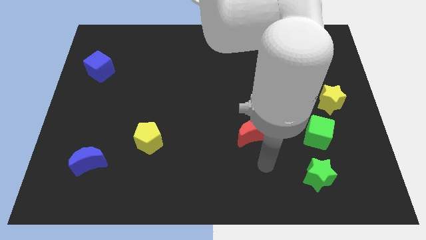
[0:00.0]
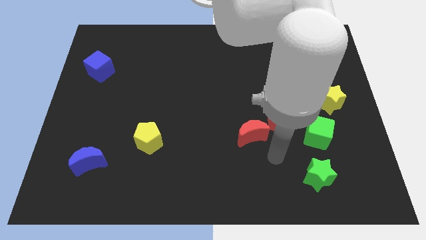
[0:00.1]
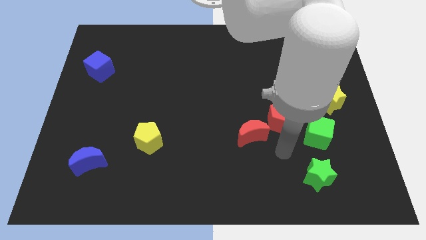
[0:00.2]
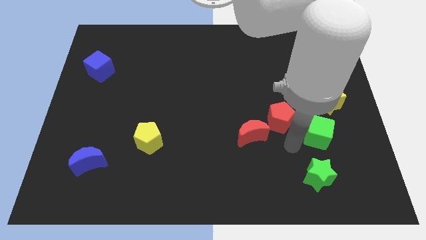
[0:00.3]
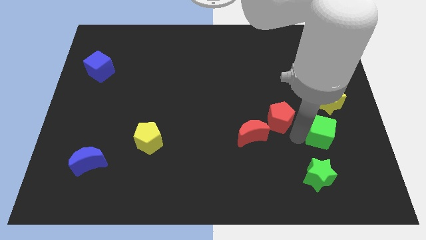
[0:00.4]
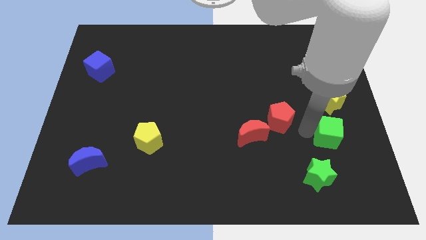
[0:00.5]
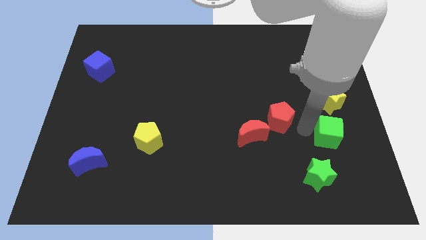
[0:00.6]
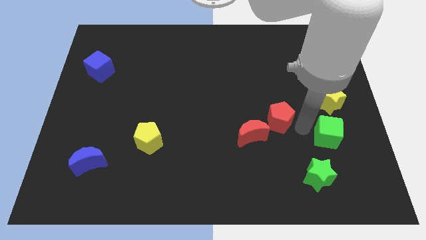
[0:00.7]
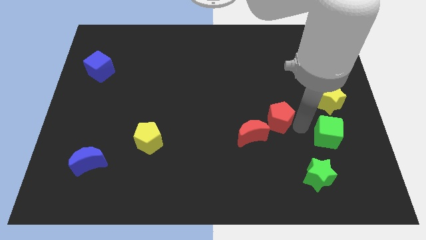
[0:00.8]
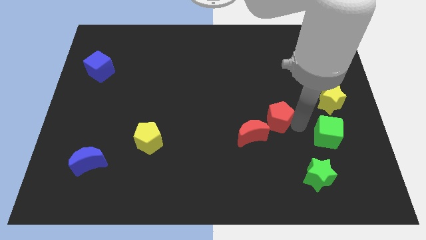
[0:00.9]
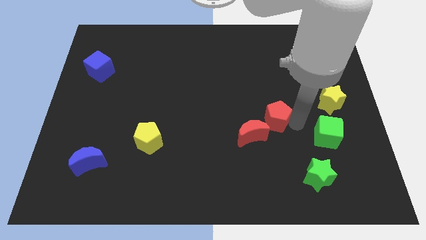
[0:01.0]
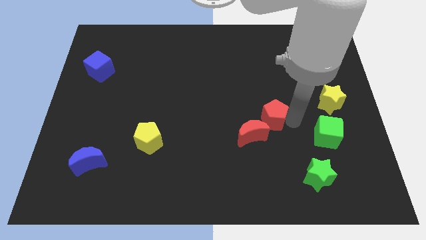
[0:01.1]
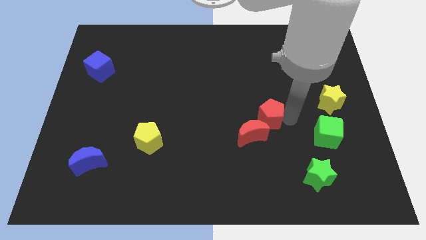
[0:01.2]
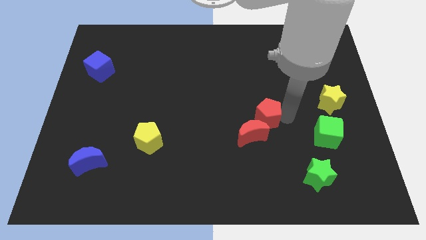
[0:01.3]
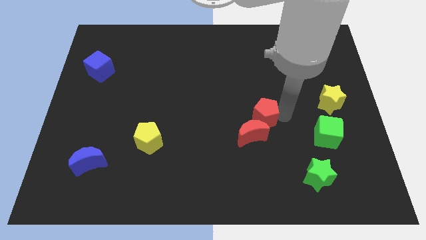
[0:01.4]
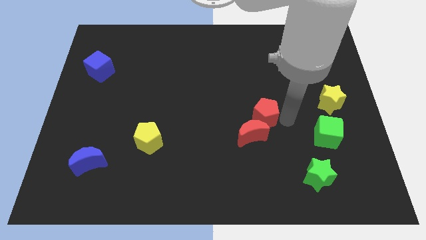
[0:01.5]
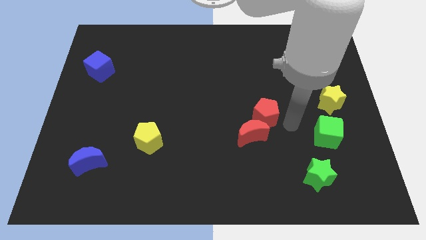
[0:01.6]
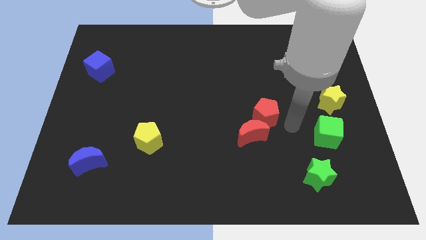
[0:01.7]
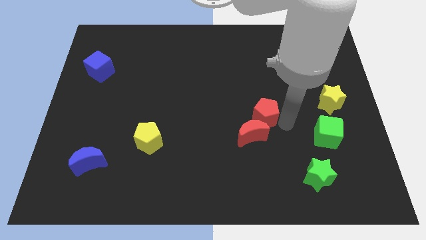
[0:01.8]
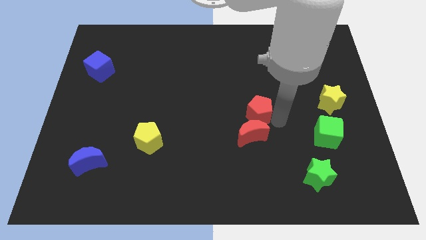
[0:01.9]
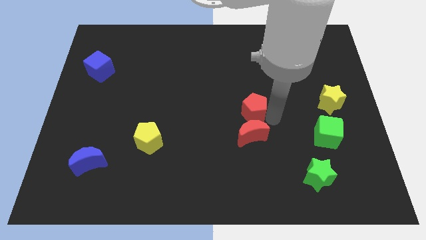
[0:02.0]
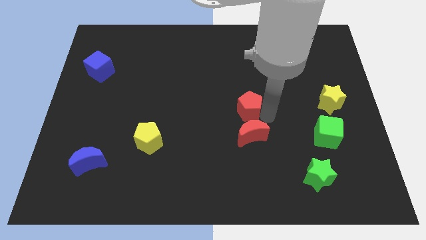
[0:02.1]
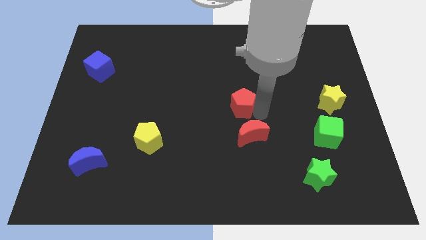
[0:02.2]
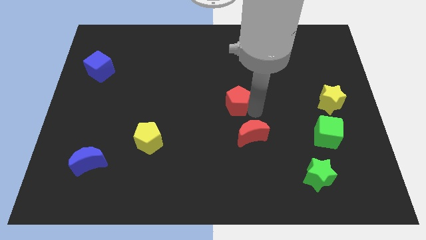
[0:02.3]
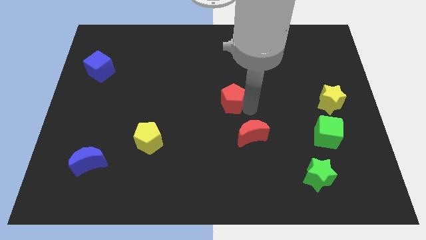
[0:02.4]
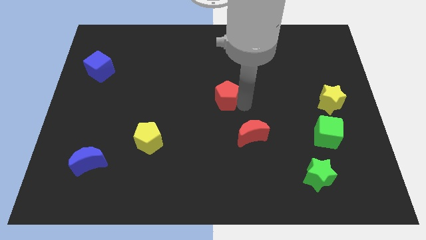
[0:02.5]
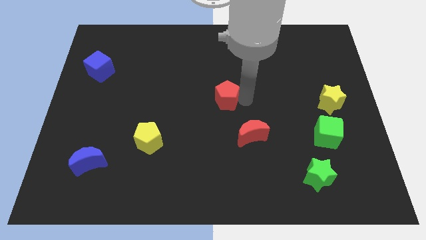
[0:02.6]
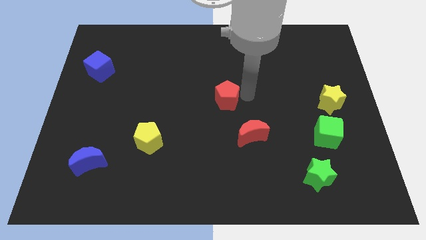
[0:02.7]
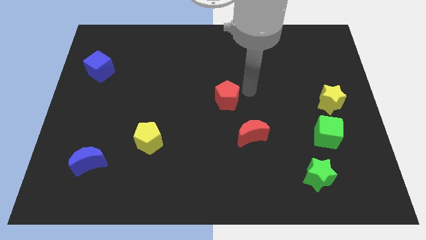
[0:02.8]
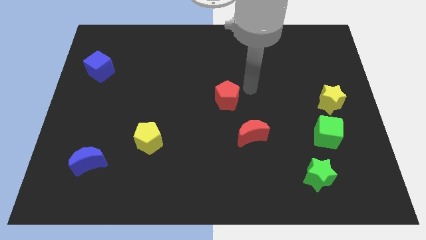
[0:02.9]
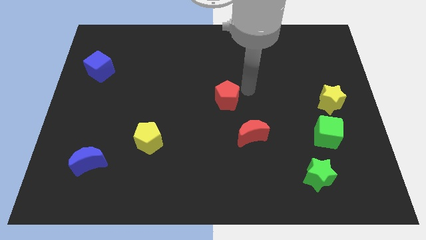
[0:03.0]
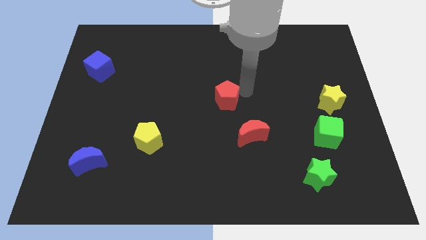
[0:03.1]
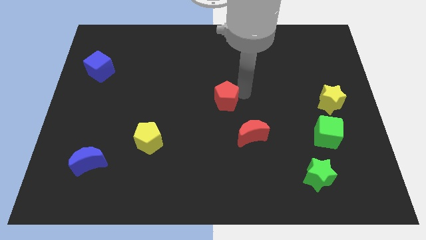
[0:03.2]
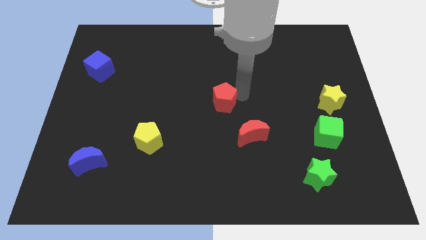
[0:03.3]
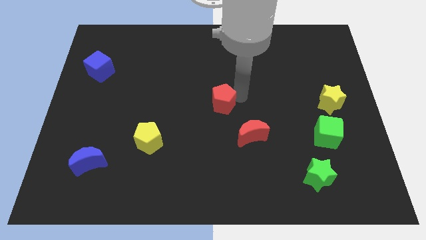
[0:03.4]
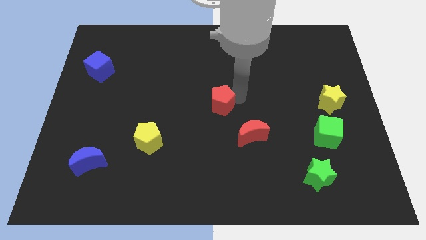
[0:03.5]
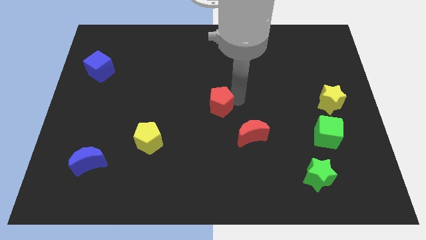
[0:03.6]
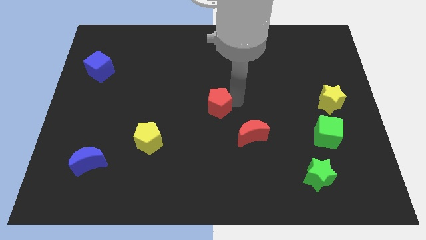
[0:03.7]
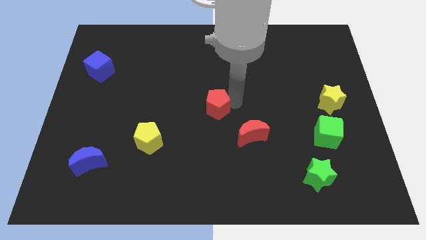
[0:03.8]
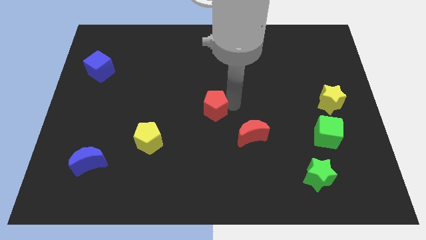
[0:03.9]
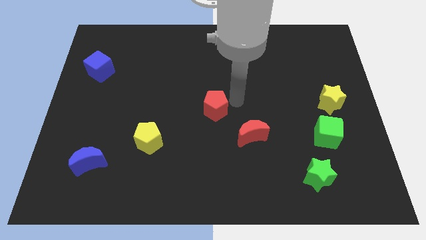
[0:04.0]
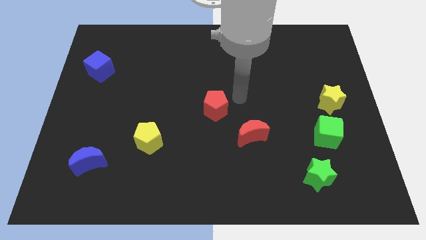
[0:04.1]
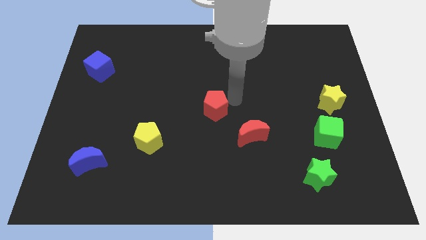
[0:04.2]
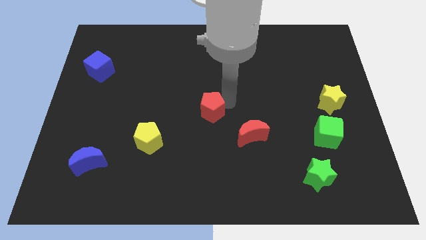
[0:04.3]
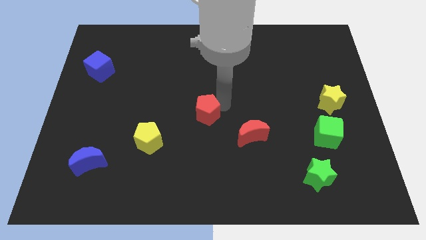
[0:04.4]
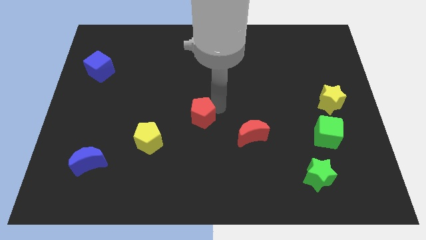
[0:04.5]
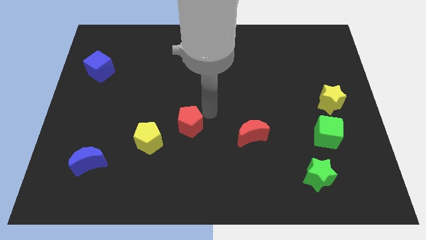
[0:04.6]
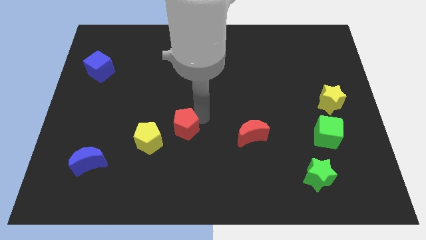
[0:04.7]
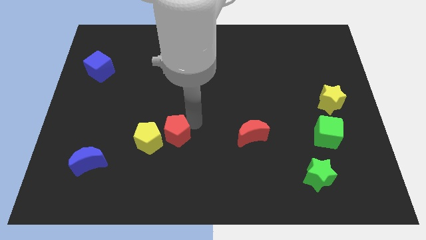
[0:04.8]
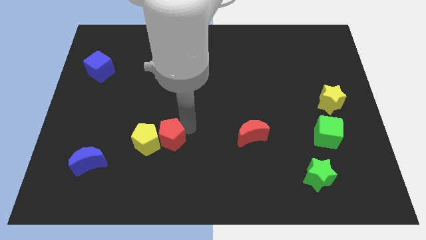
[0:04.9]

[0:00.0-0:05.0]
push the red pentagon close to the yellow pentagon

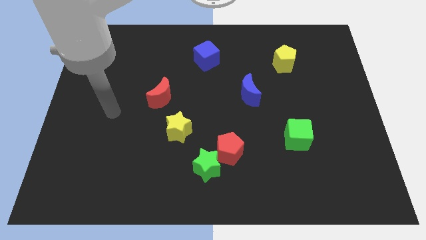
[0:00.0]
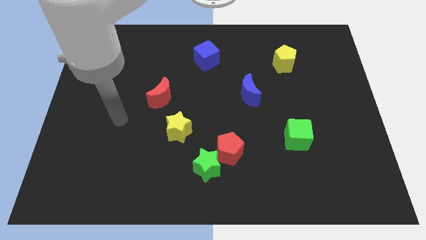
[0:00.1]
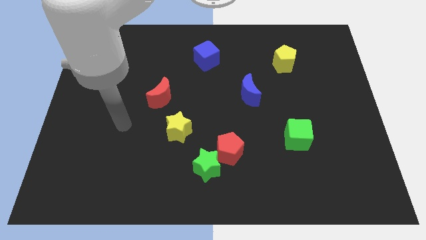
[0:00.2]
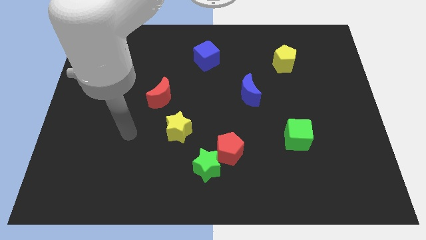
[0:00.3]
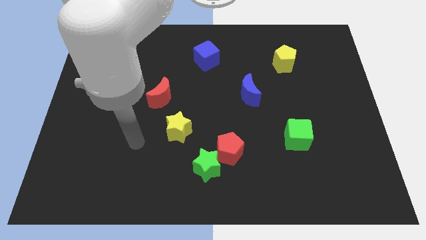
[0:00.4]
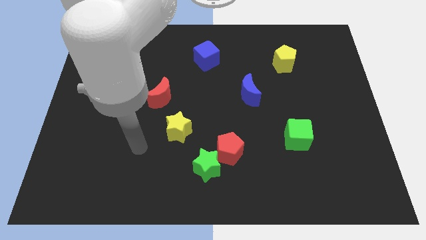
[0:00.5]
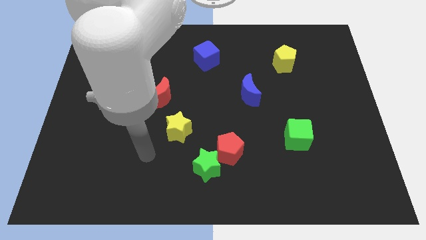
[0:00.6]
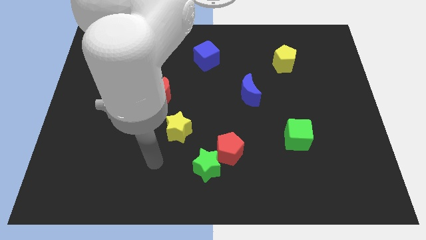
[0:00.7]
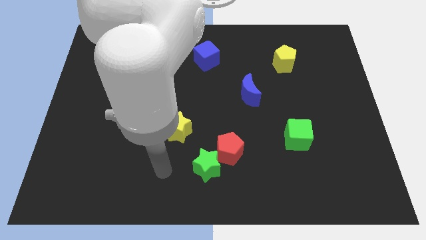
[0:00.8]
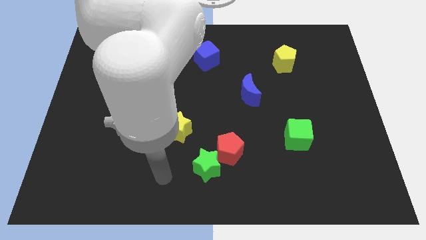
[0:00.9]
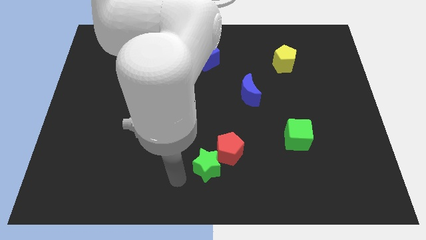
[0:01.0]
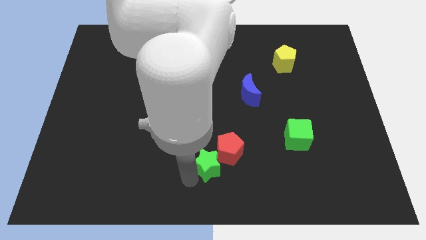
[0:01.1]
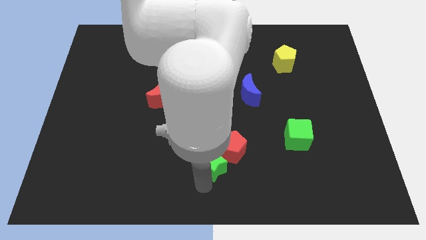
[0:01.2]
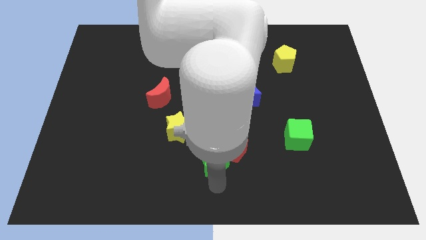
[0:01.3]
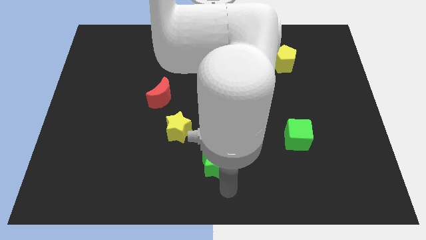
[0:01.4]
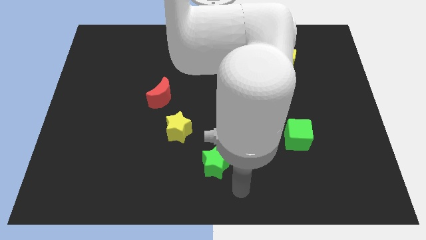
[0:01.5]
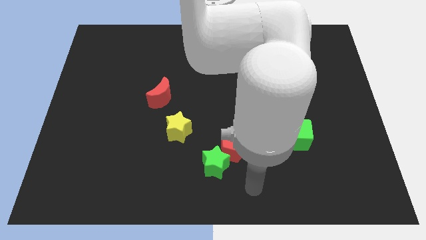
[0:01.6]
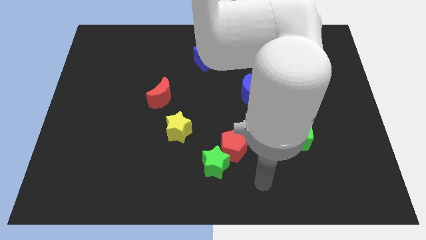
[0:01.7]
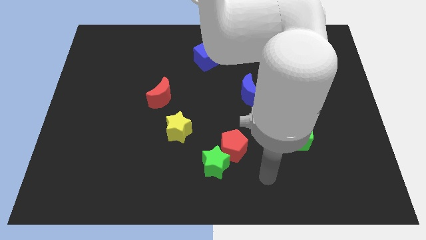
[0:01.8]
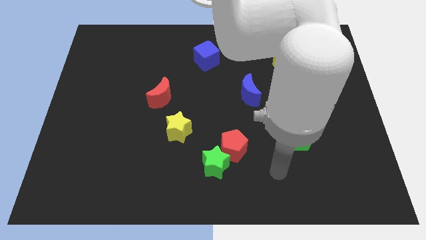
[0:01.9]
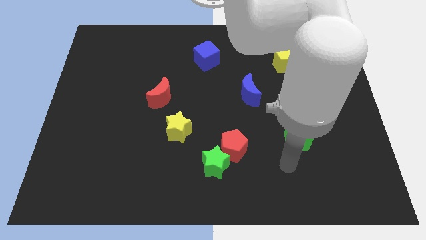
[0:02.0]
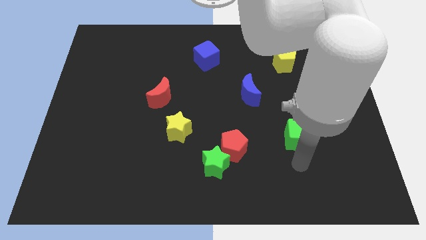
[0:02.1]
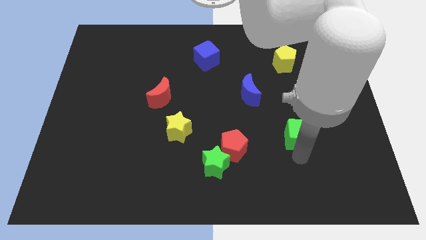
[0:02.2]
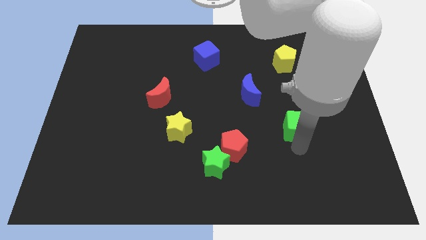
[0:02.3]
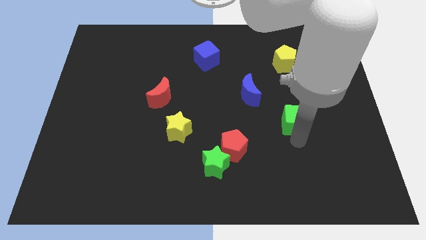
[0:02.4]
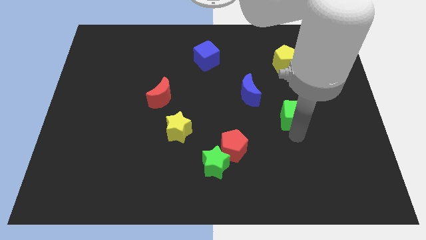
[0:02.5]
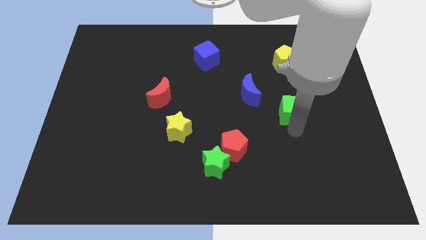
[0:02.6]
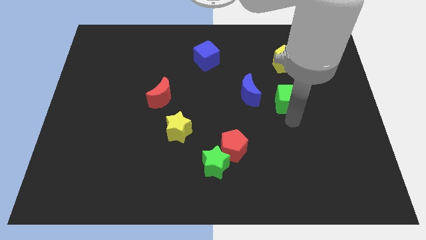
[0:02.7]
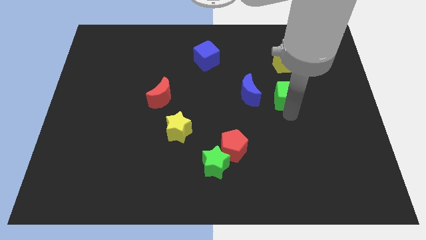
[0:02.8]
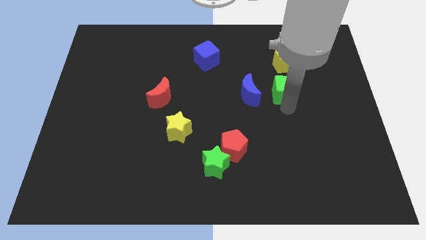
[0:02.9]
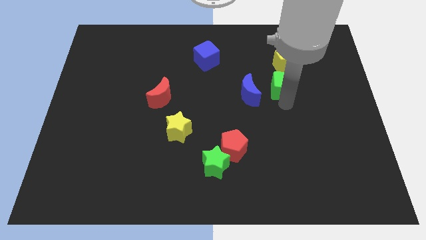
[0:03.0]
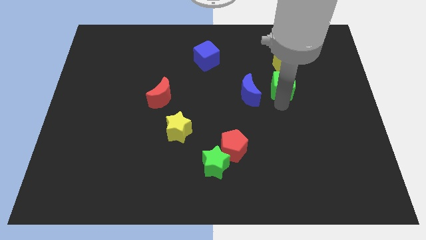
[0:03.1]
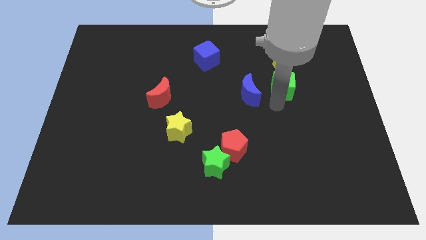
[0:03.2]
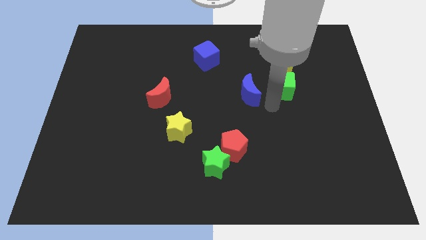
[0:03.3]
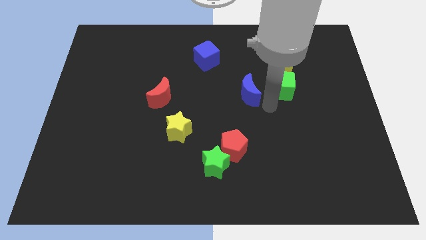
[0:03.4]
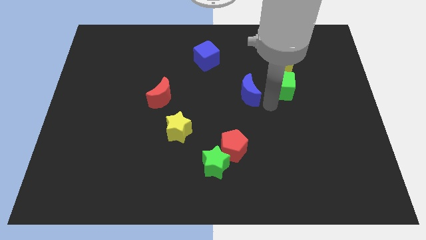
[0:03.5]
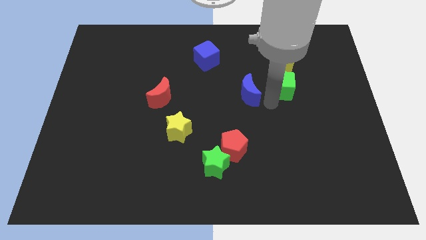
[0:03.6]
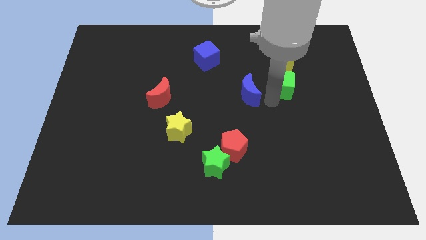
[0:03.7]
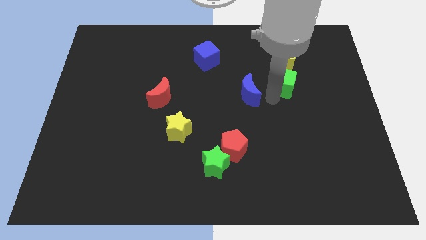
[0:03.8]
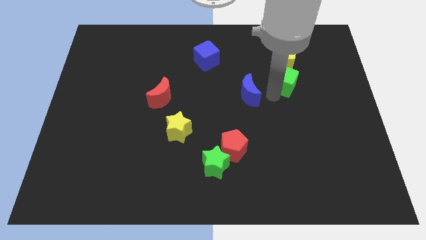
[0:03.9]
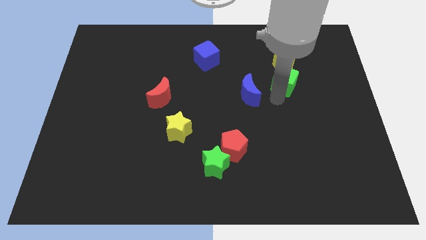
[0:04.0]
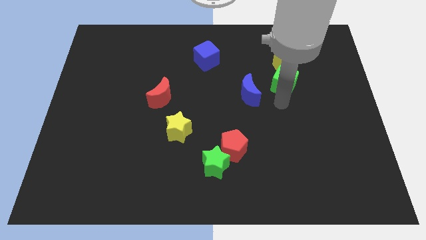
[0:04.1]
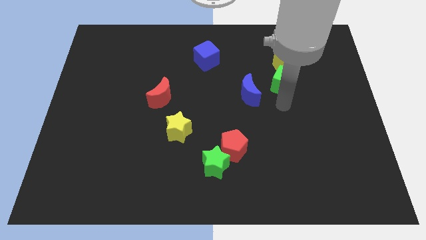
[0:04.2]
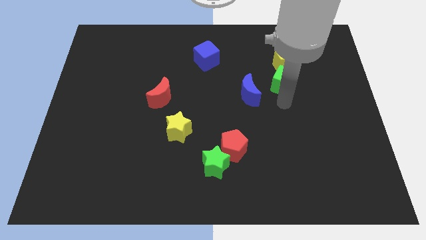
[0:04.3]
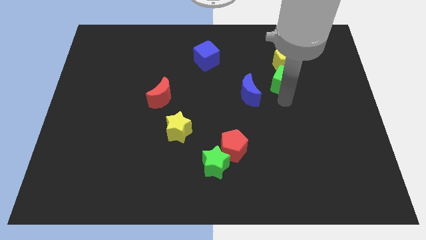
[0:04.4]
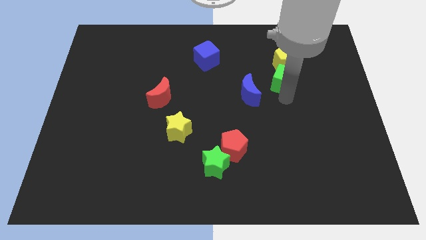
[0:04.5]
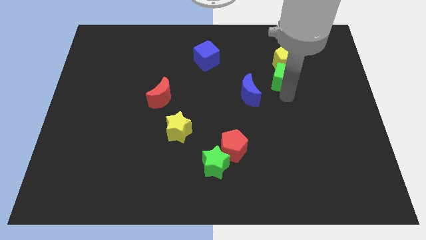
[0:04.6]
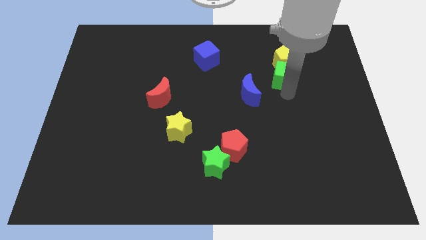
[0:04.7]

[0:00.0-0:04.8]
slide the green cube next to the yellow pentagon
